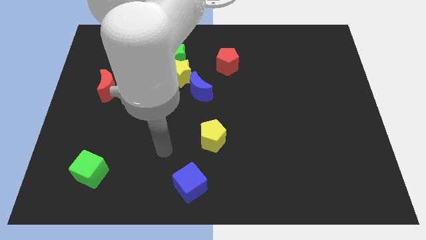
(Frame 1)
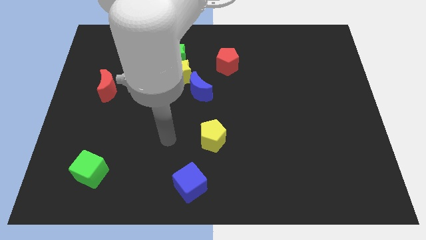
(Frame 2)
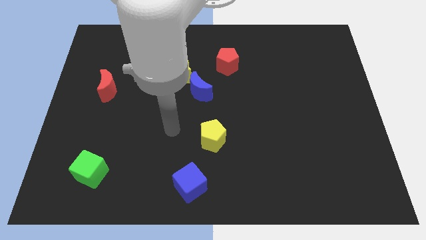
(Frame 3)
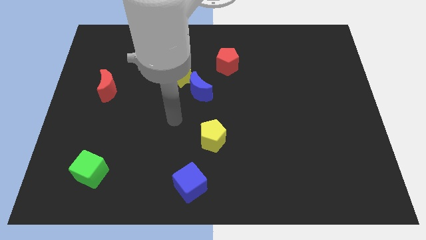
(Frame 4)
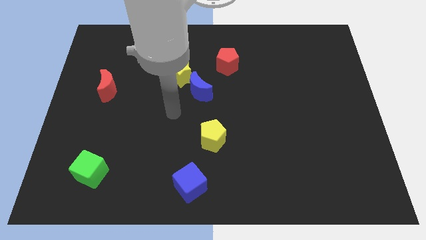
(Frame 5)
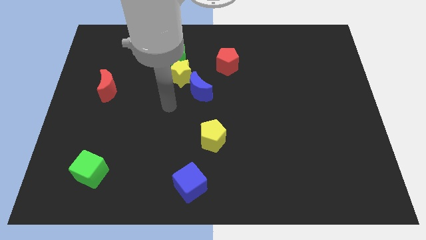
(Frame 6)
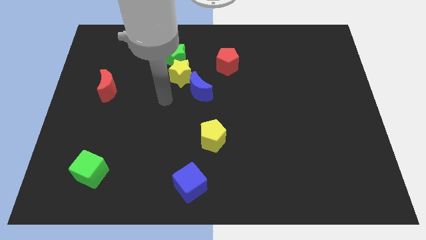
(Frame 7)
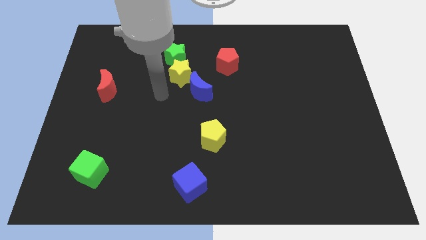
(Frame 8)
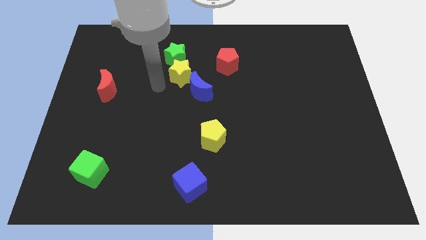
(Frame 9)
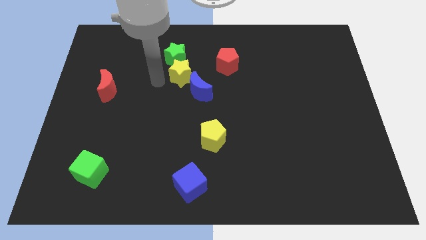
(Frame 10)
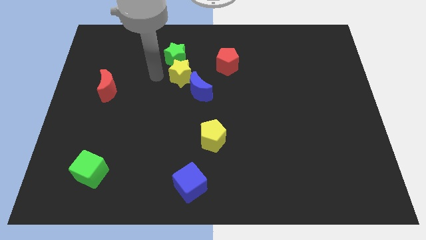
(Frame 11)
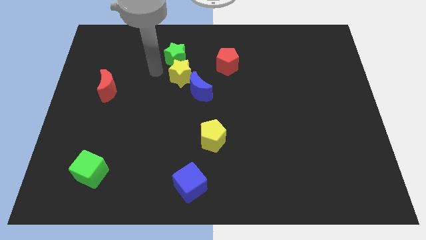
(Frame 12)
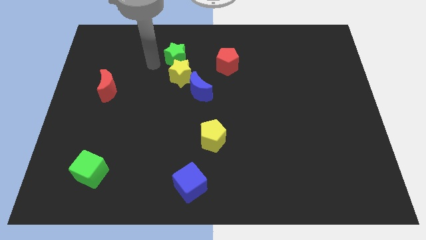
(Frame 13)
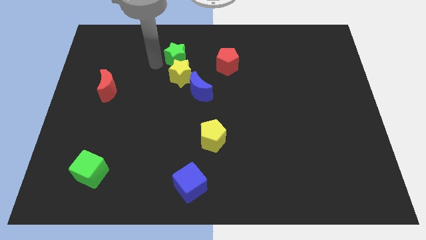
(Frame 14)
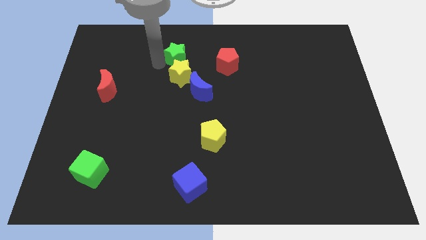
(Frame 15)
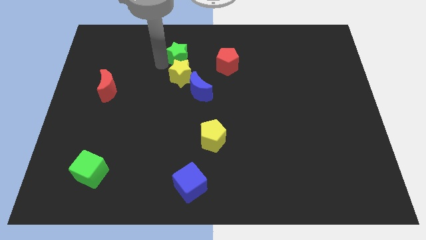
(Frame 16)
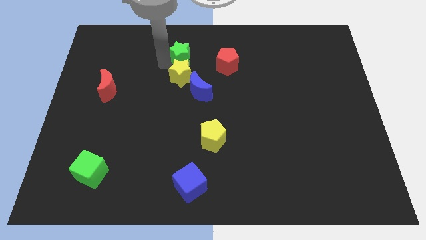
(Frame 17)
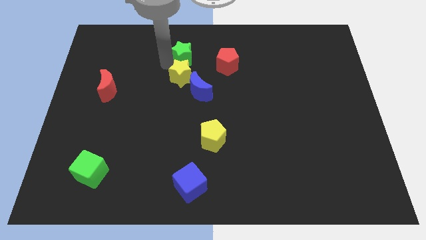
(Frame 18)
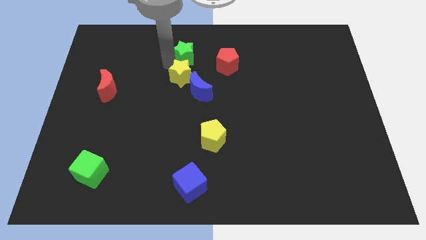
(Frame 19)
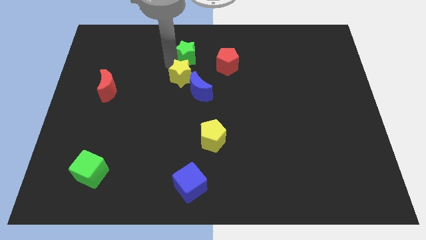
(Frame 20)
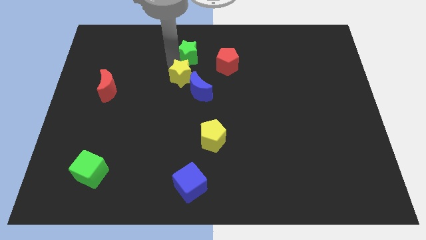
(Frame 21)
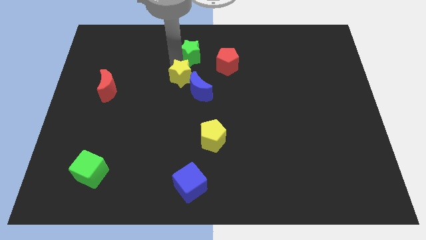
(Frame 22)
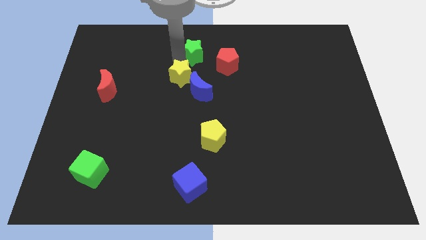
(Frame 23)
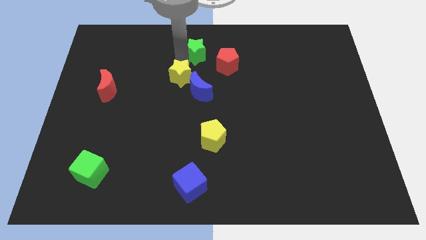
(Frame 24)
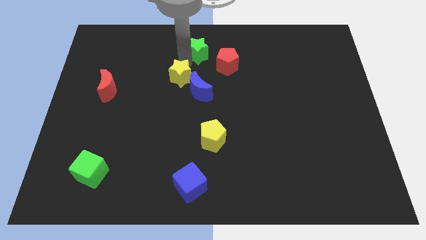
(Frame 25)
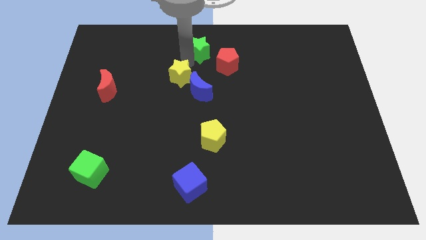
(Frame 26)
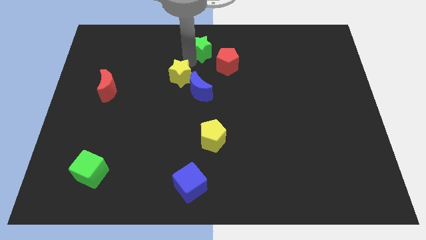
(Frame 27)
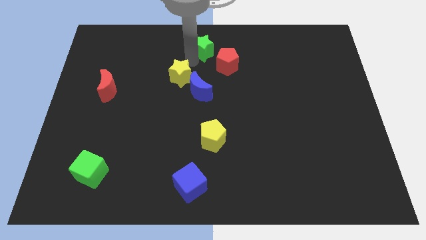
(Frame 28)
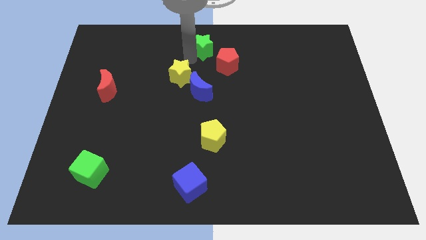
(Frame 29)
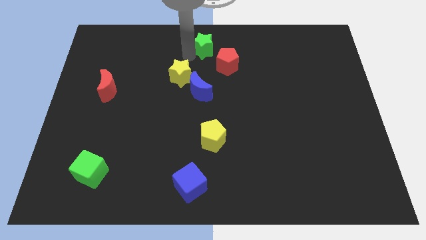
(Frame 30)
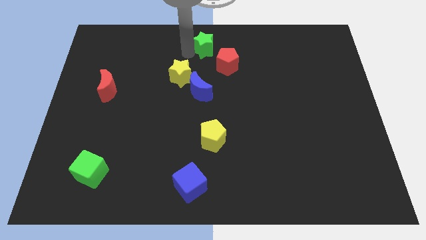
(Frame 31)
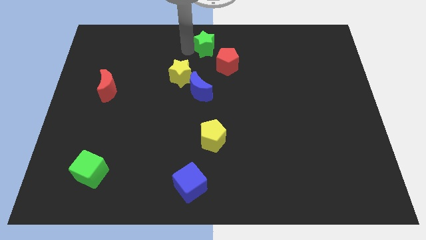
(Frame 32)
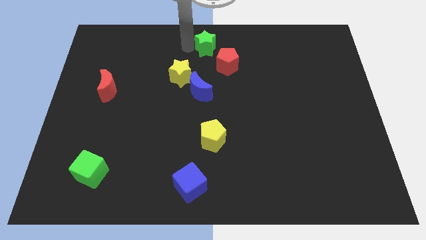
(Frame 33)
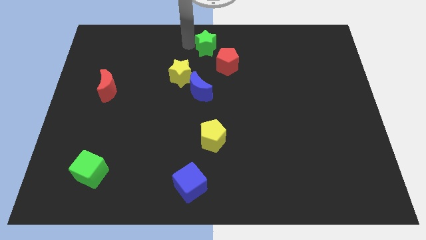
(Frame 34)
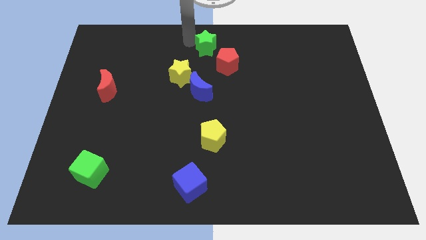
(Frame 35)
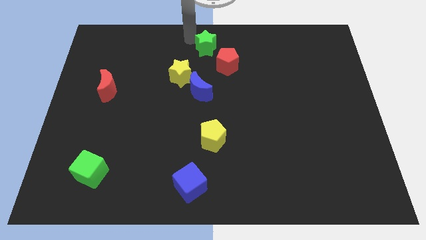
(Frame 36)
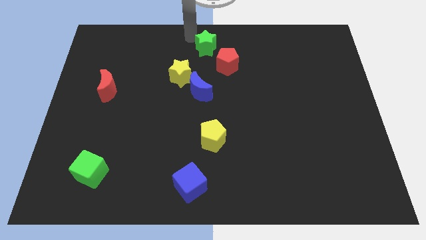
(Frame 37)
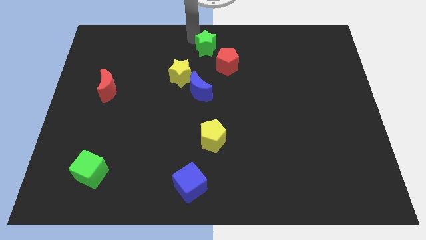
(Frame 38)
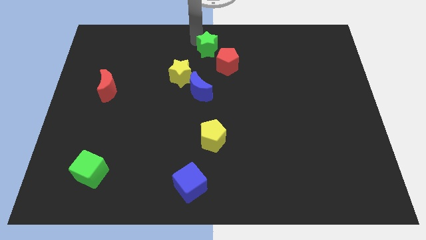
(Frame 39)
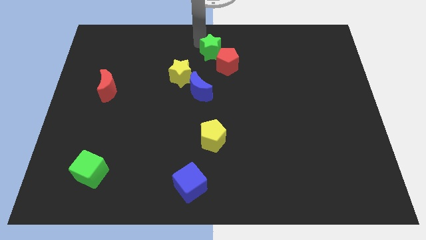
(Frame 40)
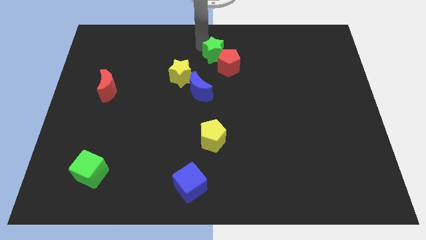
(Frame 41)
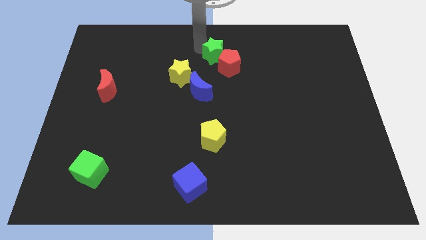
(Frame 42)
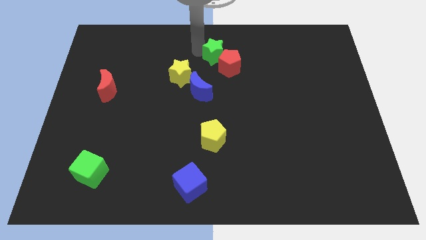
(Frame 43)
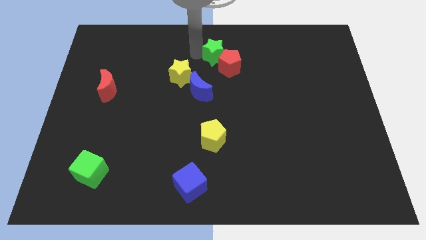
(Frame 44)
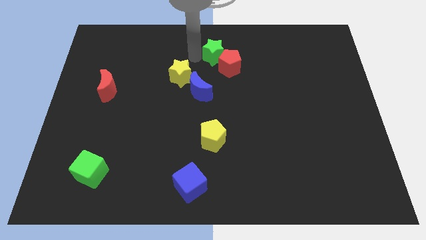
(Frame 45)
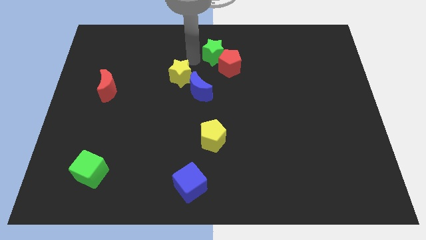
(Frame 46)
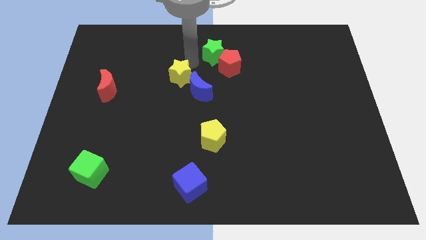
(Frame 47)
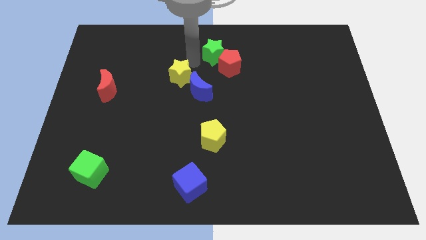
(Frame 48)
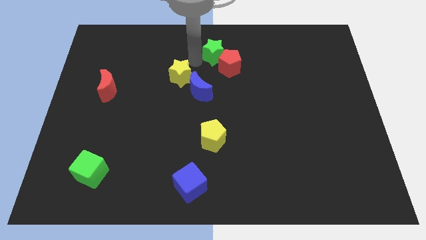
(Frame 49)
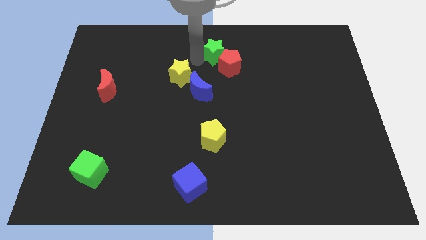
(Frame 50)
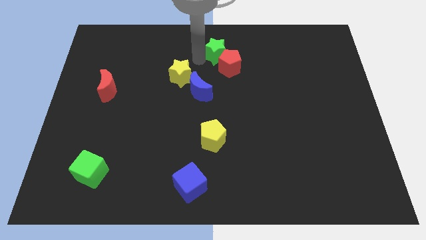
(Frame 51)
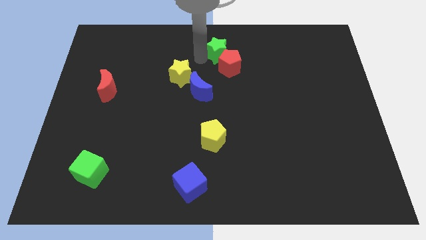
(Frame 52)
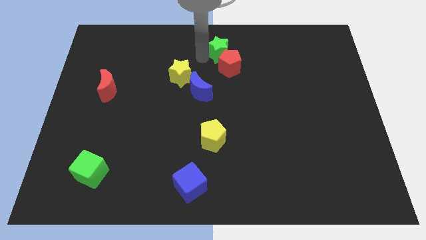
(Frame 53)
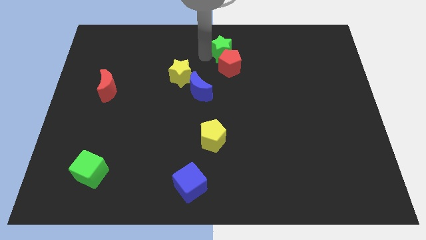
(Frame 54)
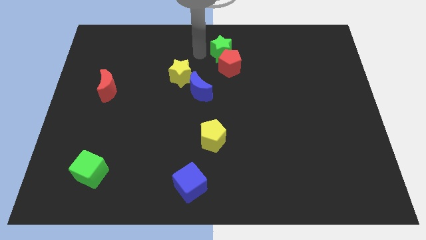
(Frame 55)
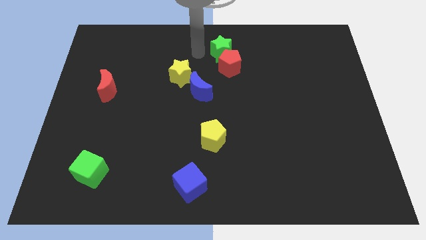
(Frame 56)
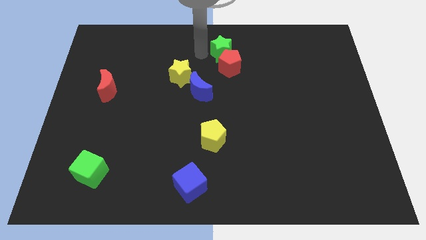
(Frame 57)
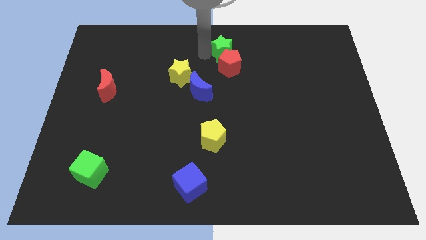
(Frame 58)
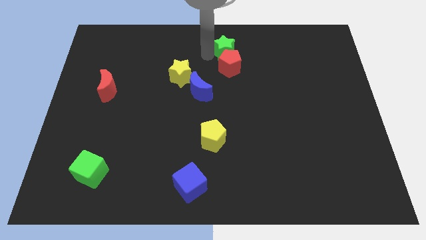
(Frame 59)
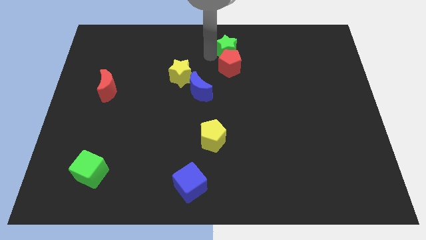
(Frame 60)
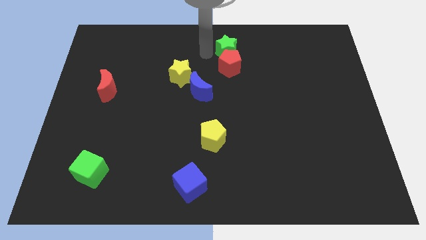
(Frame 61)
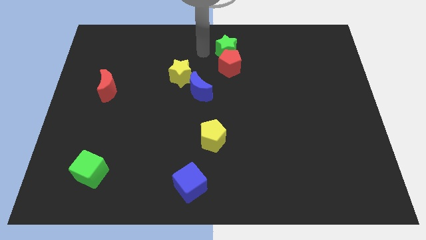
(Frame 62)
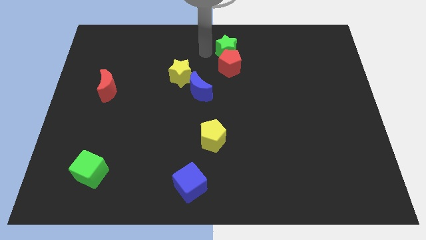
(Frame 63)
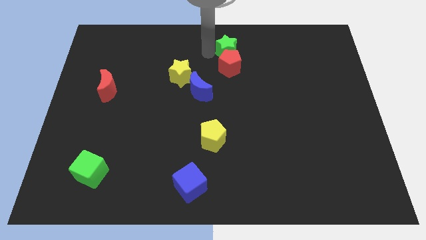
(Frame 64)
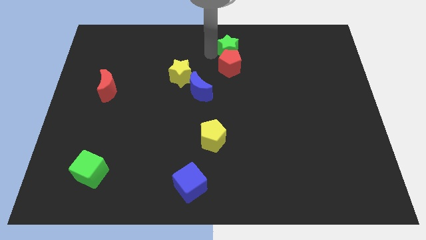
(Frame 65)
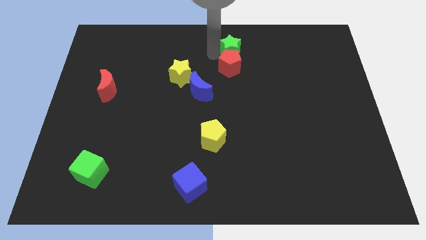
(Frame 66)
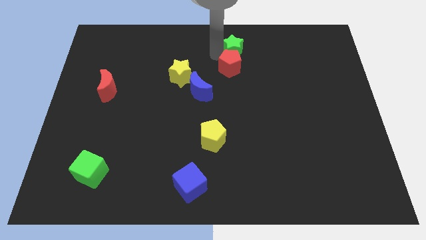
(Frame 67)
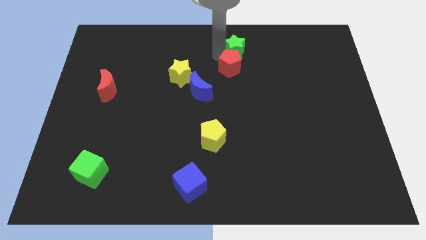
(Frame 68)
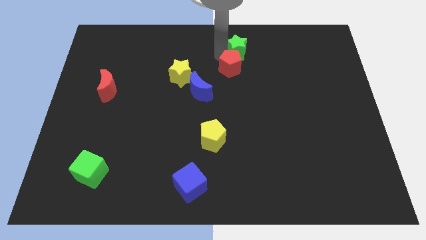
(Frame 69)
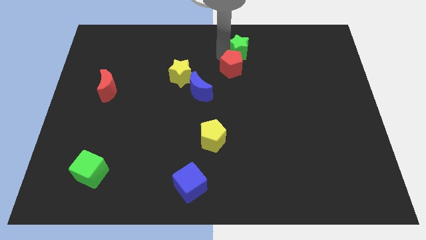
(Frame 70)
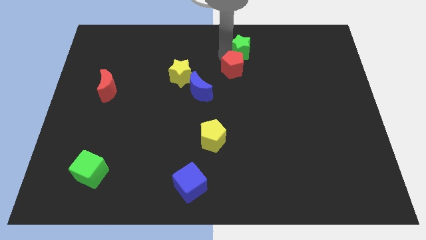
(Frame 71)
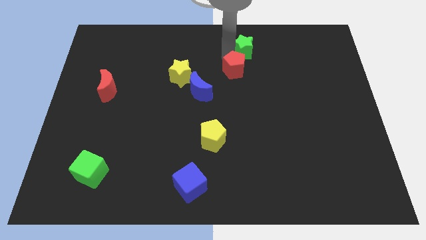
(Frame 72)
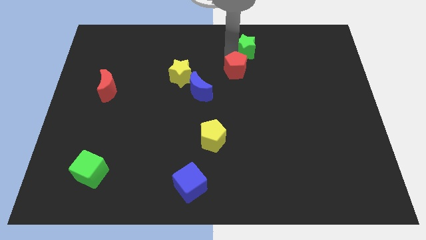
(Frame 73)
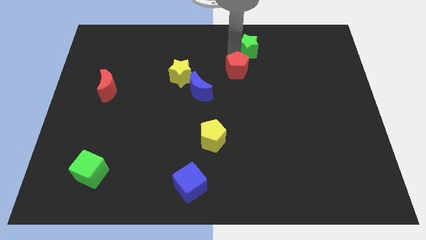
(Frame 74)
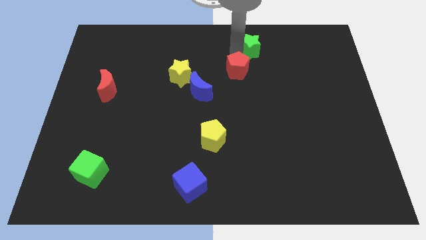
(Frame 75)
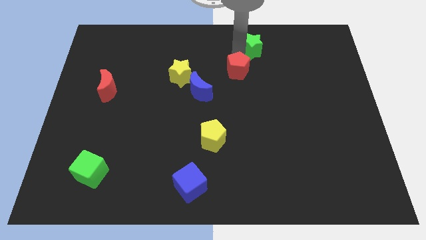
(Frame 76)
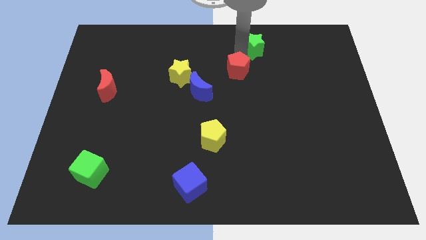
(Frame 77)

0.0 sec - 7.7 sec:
push the green star right

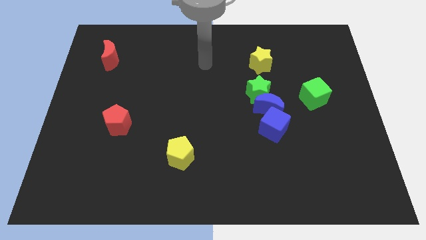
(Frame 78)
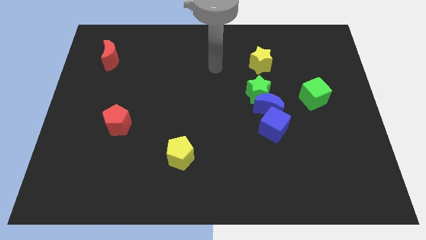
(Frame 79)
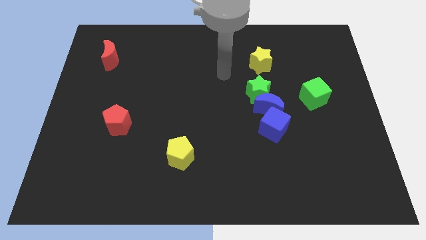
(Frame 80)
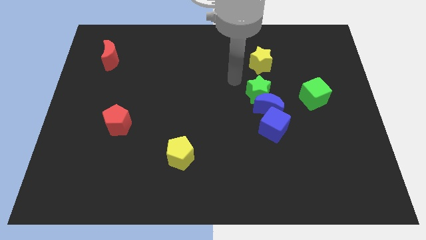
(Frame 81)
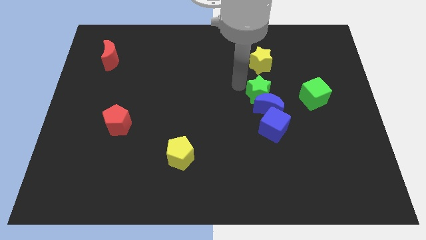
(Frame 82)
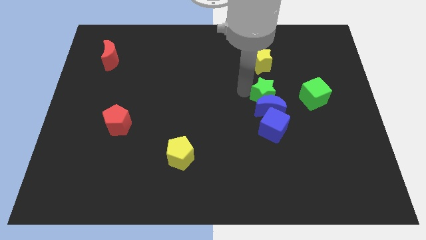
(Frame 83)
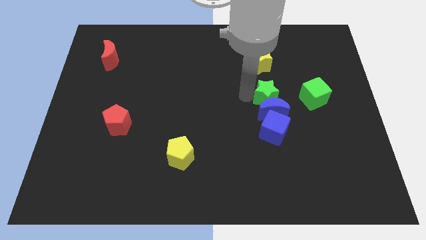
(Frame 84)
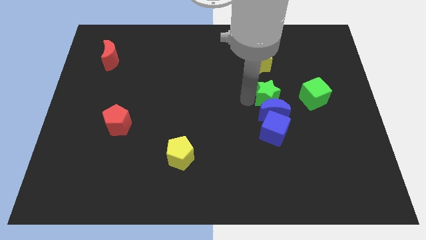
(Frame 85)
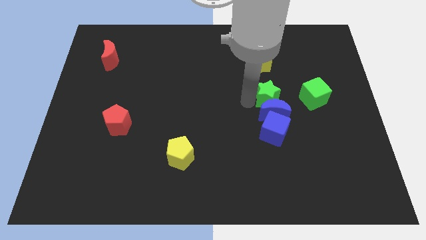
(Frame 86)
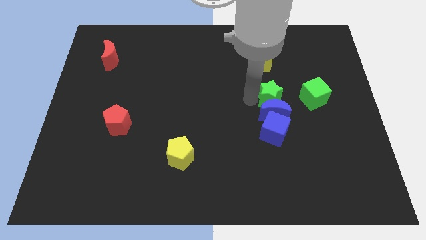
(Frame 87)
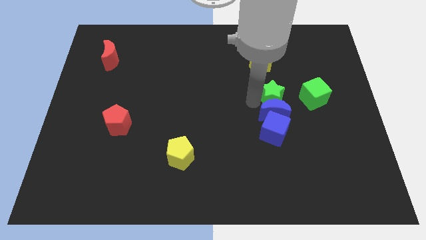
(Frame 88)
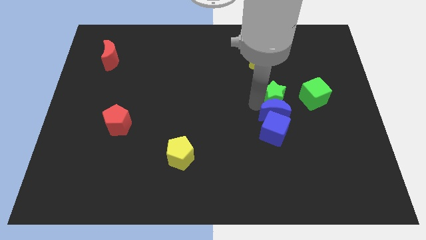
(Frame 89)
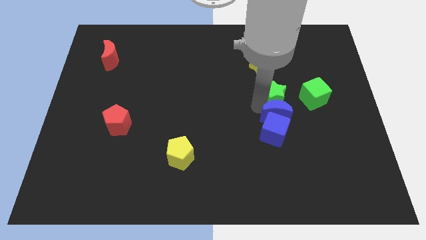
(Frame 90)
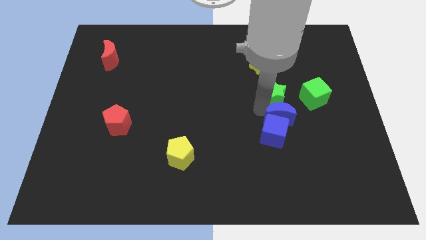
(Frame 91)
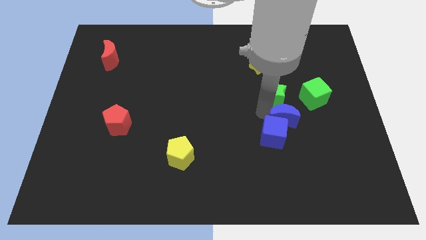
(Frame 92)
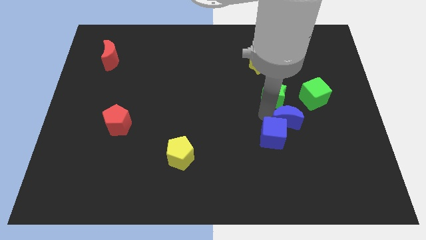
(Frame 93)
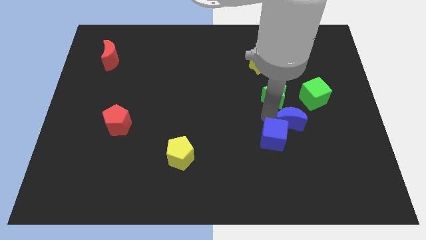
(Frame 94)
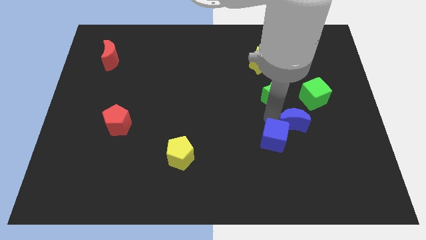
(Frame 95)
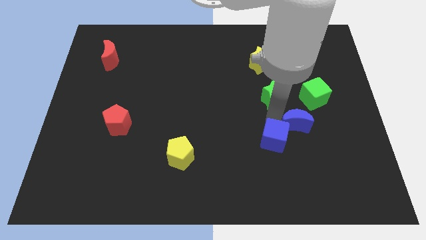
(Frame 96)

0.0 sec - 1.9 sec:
push the blue moon downwards and to the right a little bit
